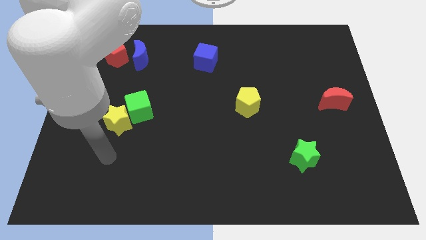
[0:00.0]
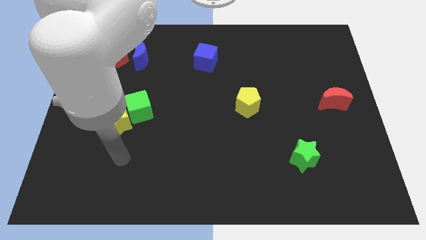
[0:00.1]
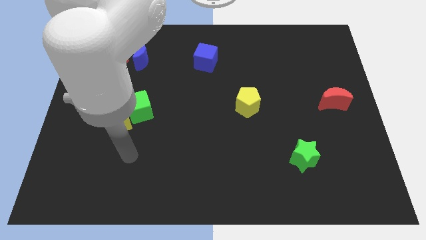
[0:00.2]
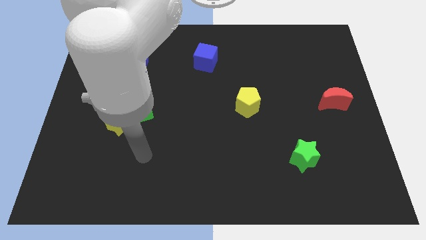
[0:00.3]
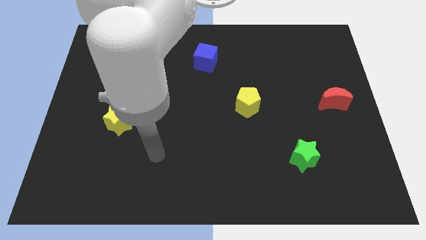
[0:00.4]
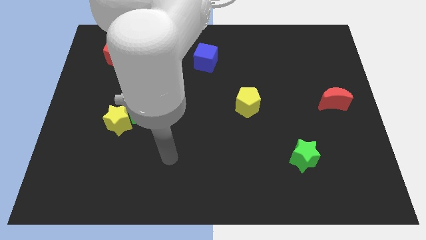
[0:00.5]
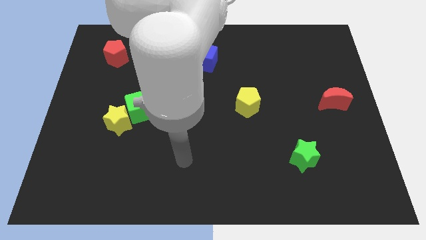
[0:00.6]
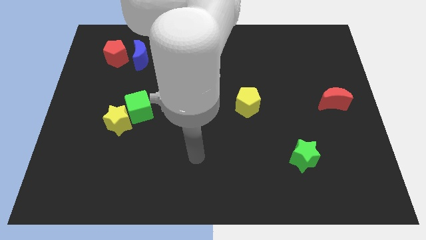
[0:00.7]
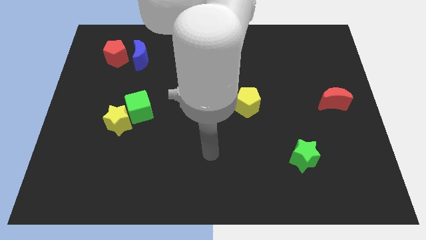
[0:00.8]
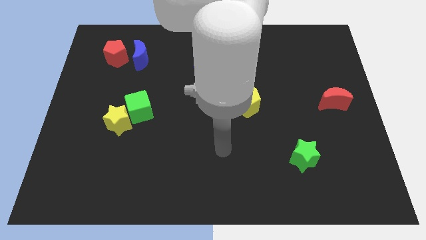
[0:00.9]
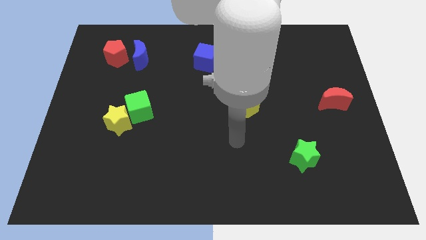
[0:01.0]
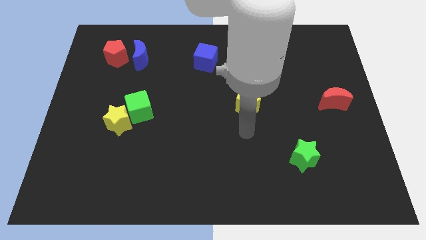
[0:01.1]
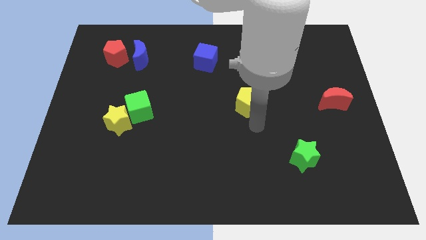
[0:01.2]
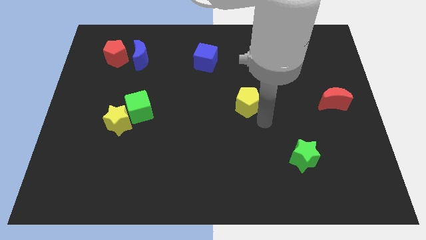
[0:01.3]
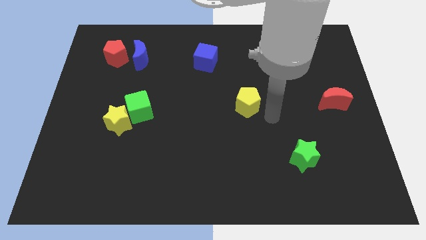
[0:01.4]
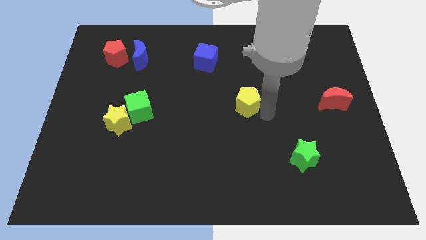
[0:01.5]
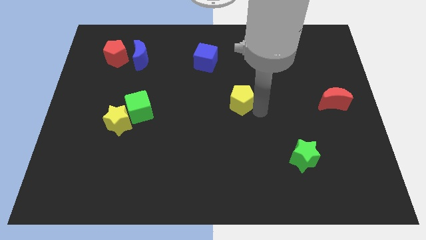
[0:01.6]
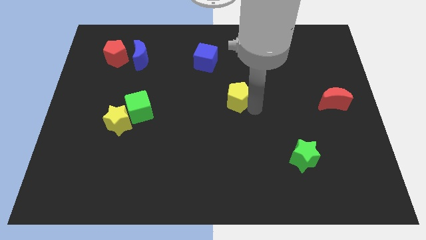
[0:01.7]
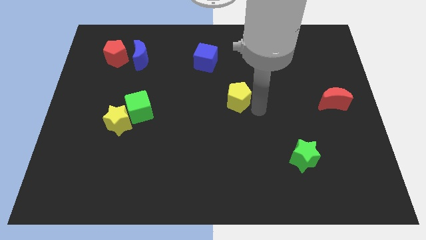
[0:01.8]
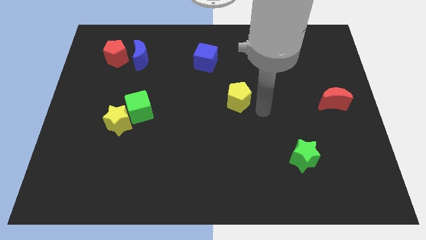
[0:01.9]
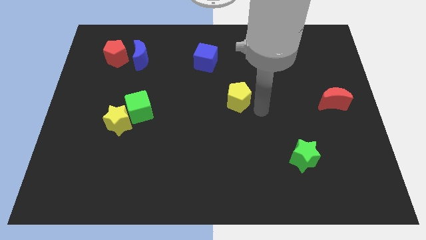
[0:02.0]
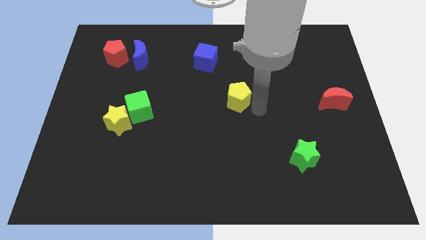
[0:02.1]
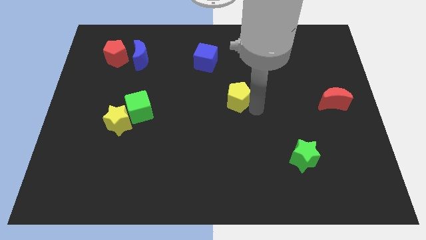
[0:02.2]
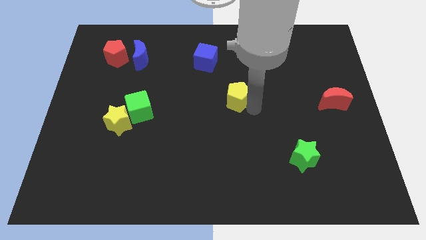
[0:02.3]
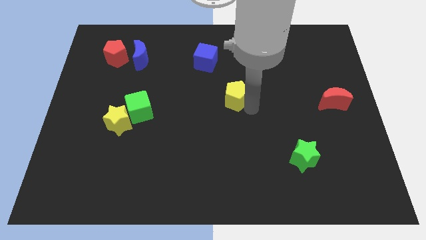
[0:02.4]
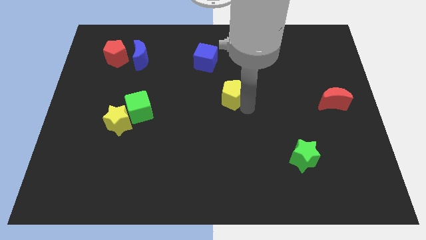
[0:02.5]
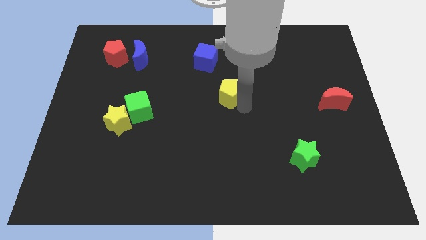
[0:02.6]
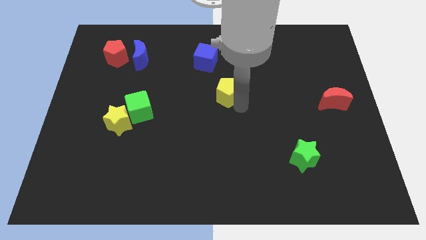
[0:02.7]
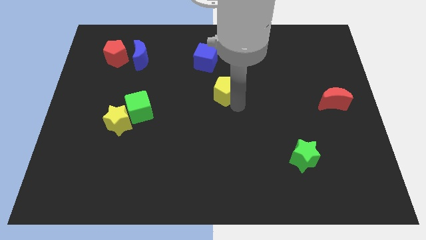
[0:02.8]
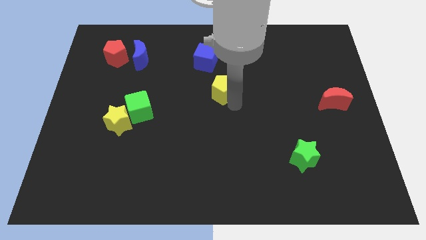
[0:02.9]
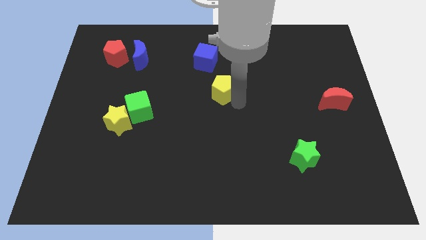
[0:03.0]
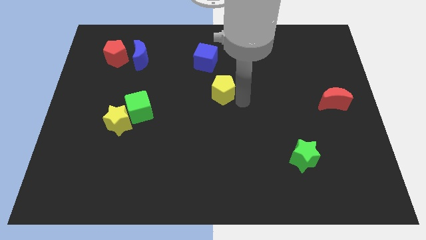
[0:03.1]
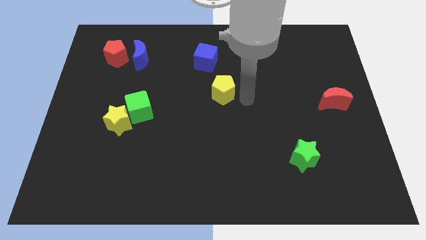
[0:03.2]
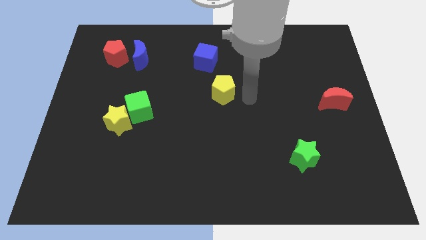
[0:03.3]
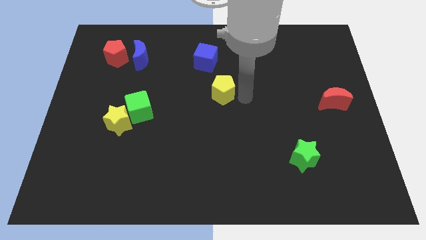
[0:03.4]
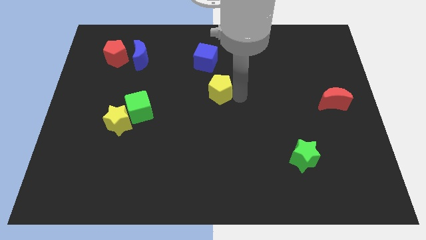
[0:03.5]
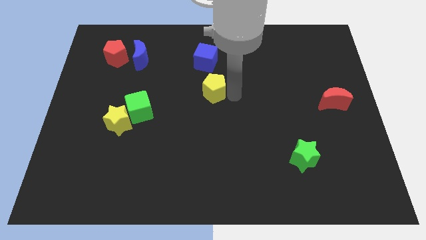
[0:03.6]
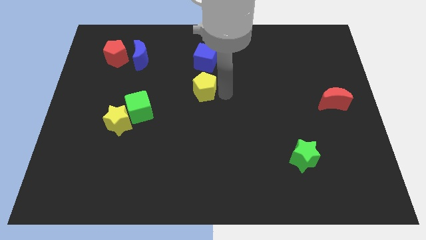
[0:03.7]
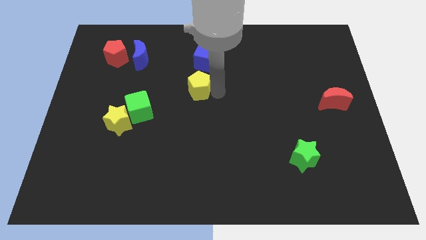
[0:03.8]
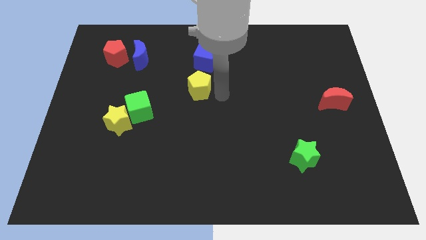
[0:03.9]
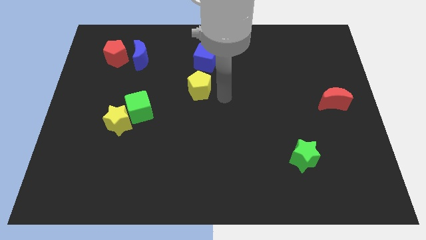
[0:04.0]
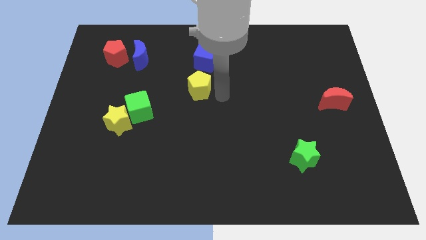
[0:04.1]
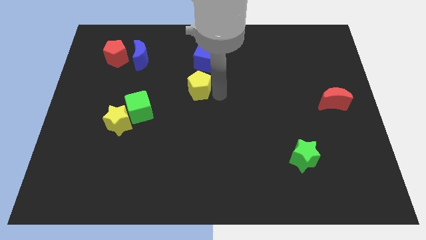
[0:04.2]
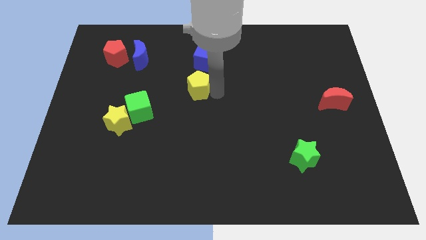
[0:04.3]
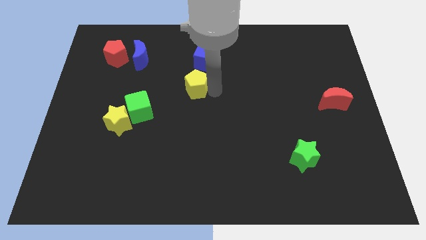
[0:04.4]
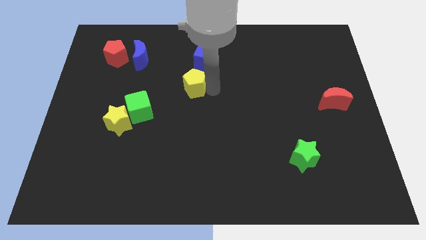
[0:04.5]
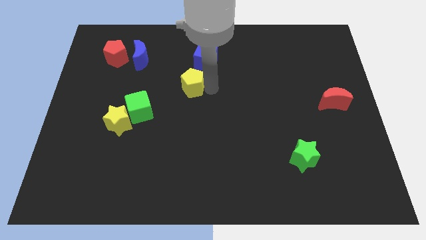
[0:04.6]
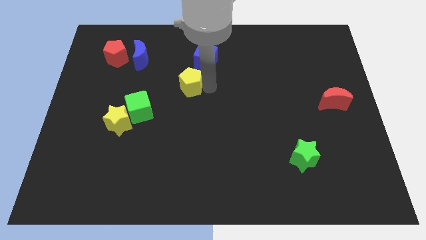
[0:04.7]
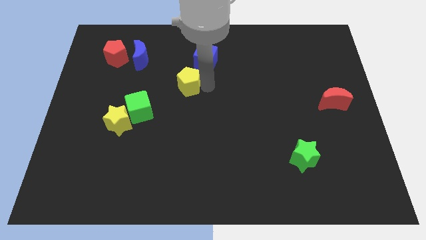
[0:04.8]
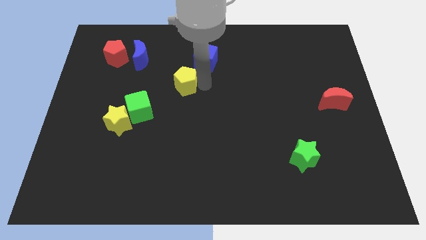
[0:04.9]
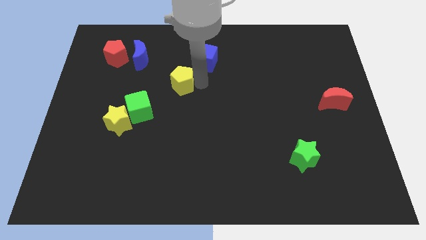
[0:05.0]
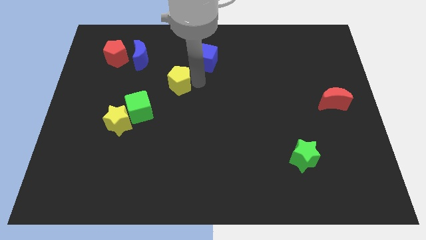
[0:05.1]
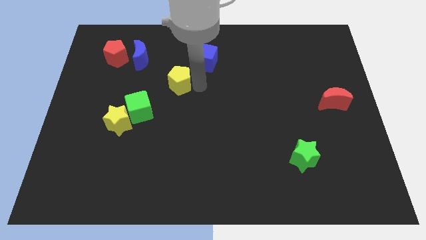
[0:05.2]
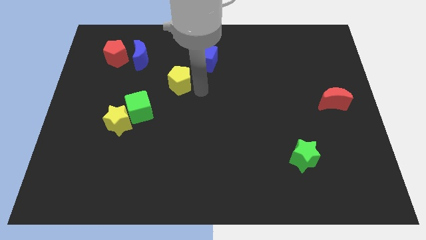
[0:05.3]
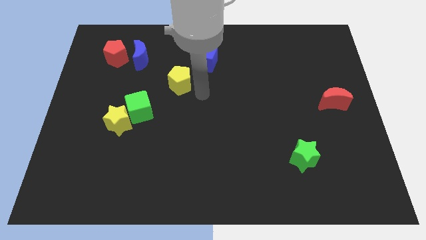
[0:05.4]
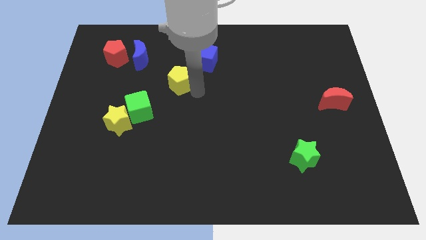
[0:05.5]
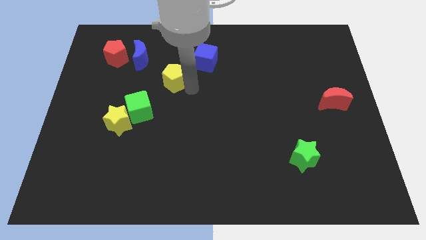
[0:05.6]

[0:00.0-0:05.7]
move the yellow pentagon to the bottom right side of the blue moon
